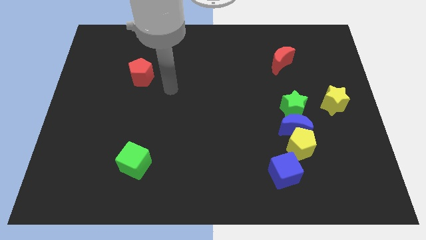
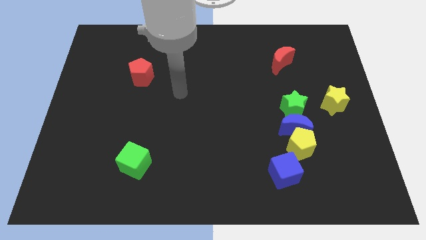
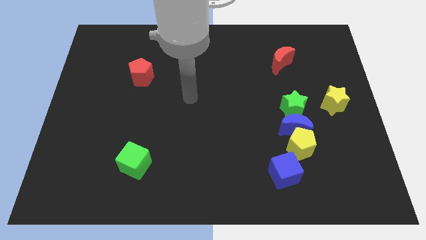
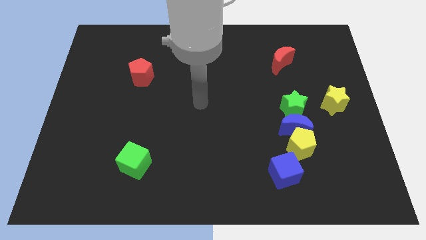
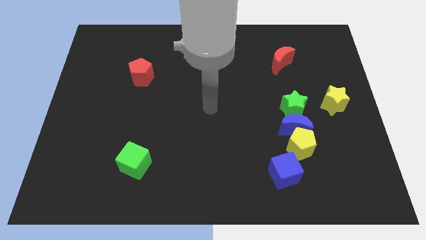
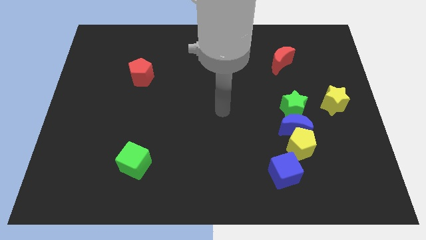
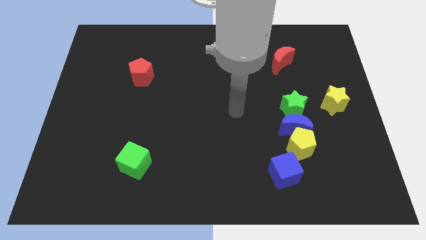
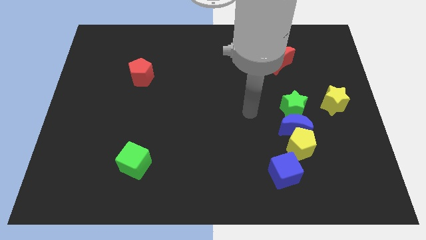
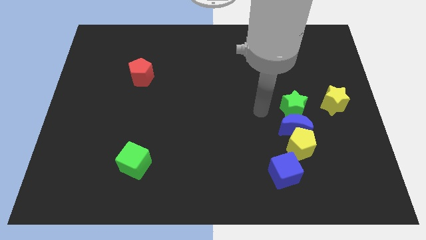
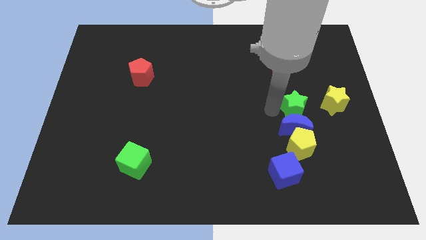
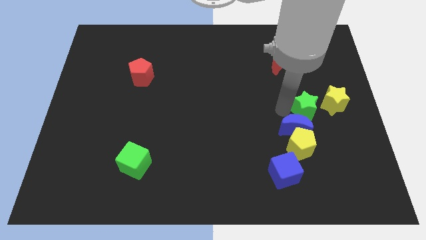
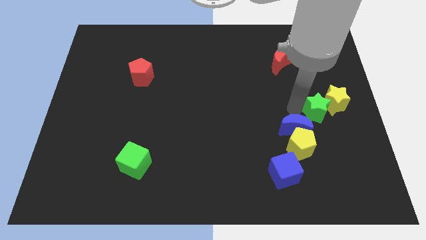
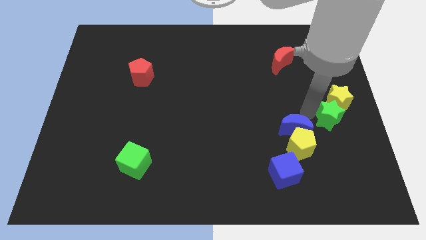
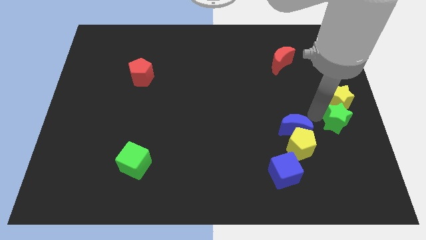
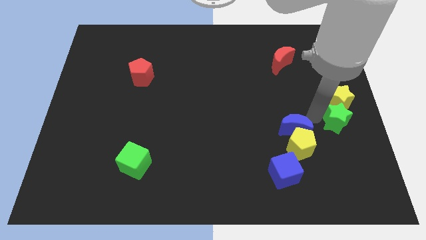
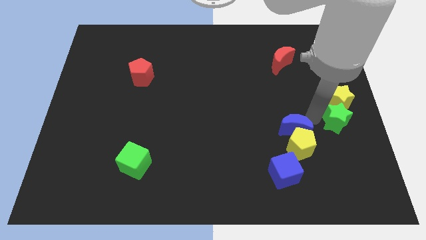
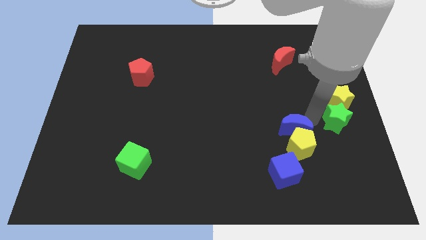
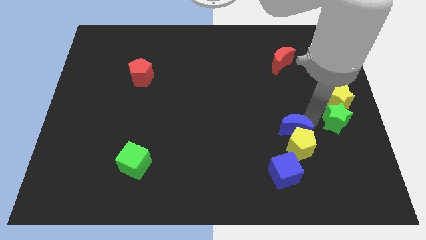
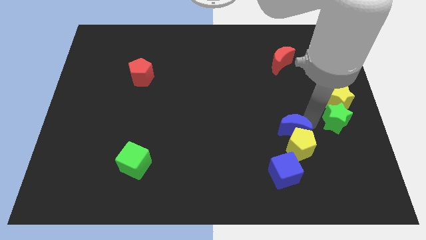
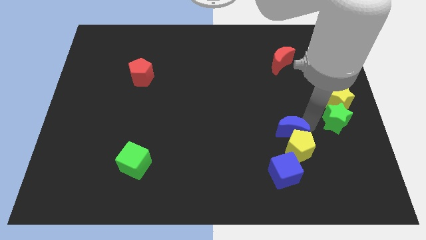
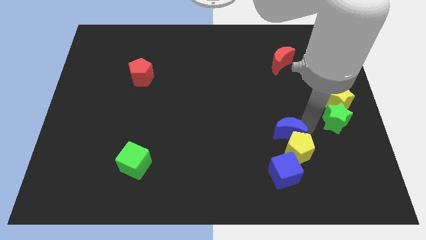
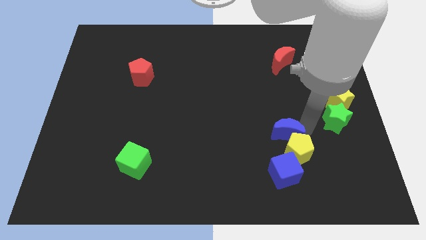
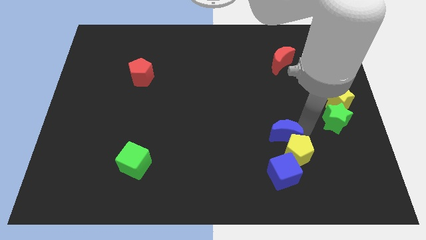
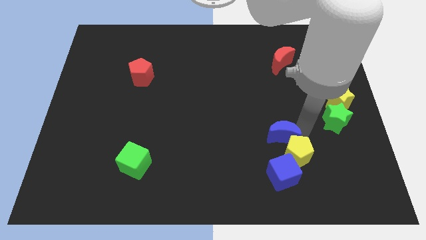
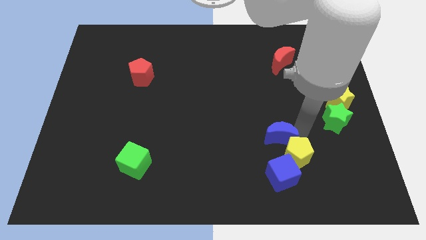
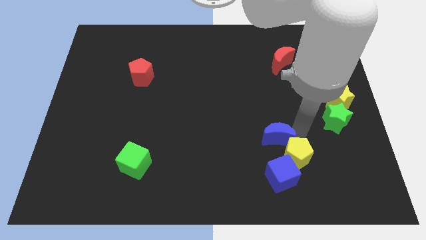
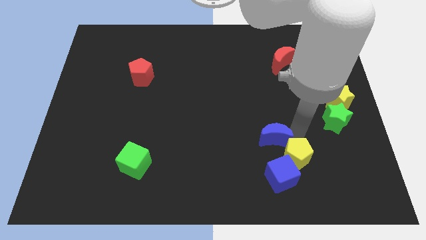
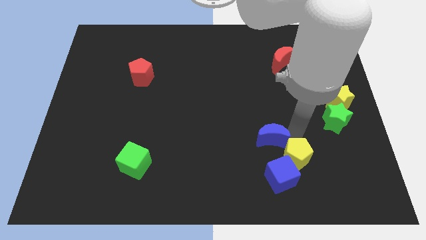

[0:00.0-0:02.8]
move the blue moon away from the yellow pentagon and green star

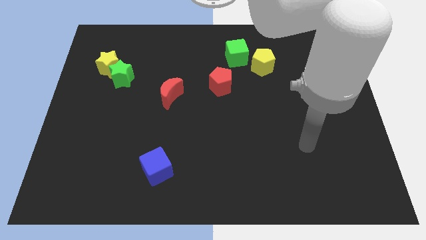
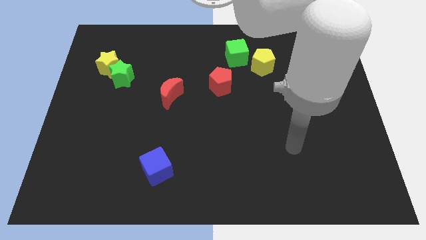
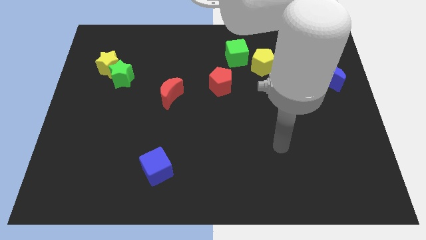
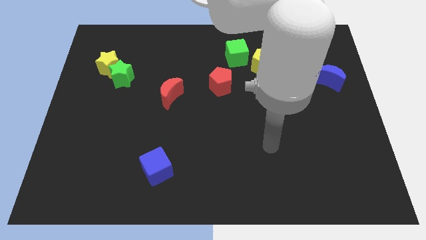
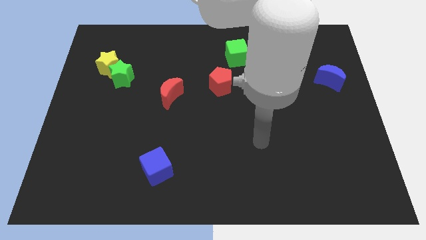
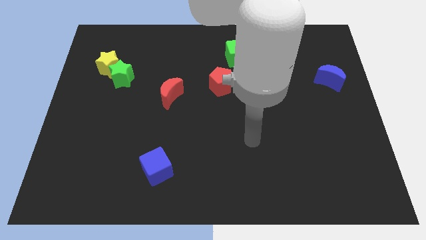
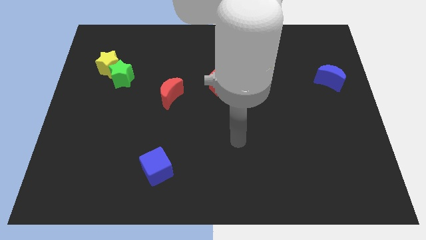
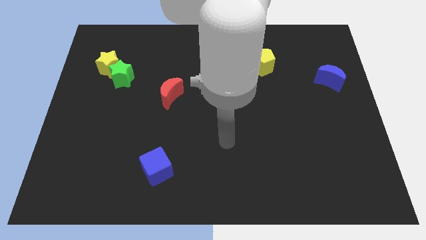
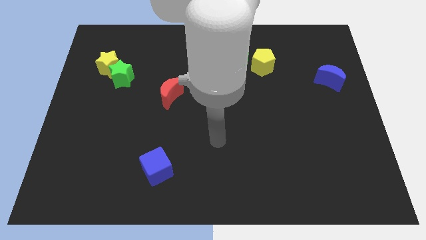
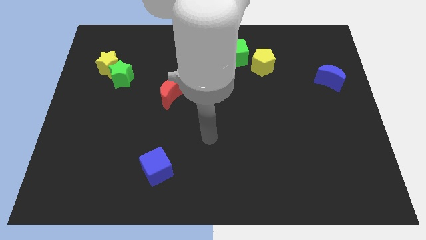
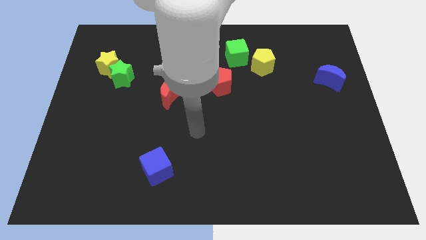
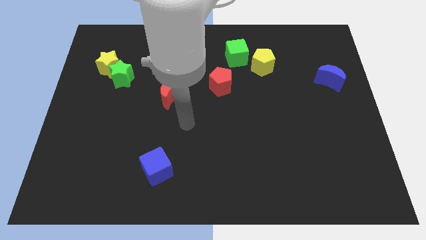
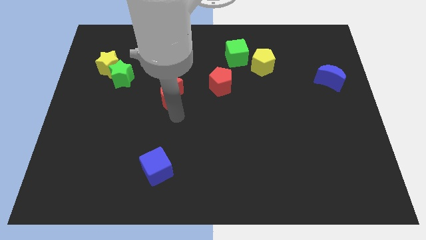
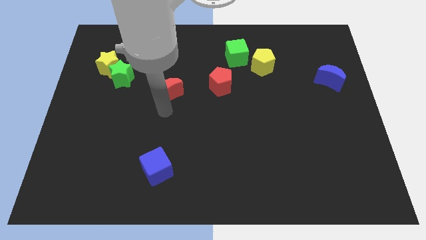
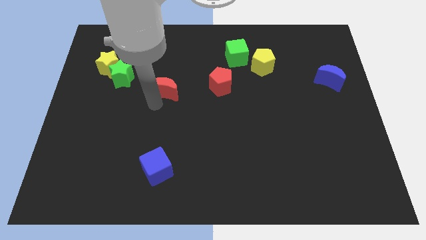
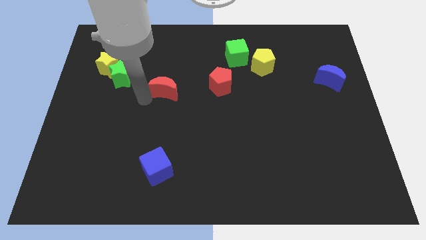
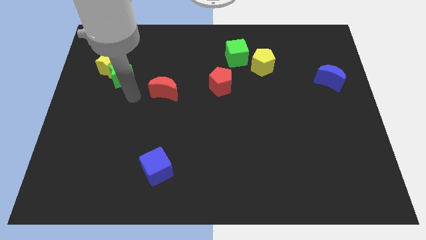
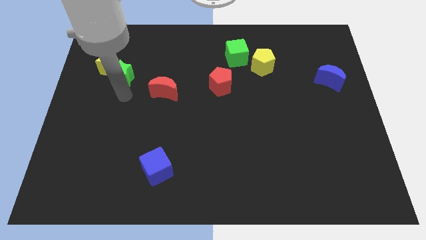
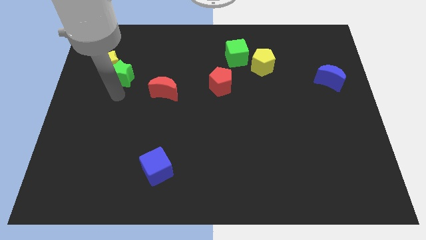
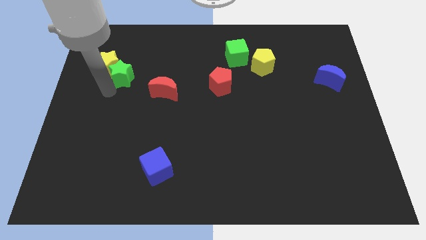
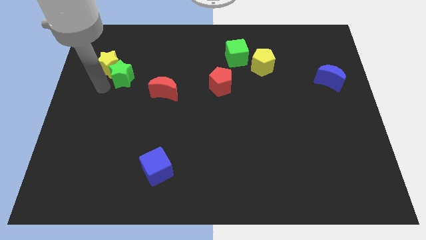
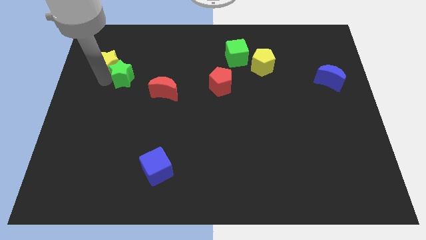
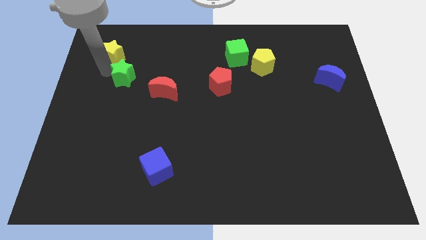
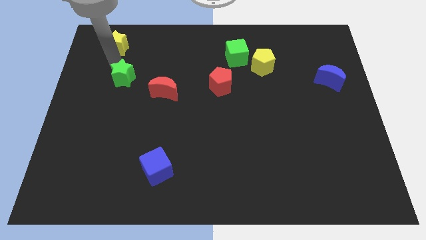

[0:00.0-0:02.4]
move the green star away from the yellow star

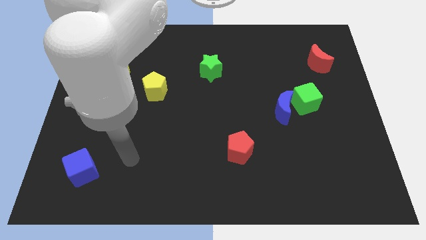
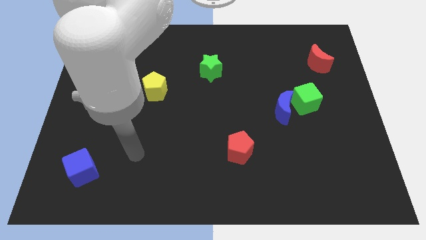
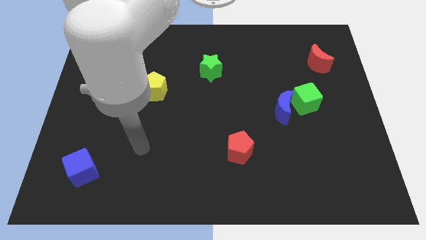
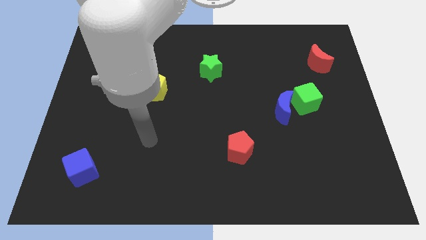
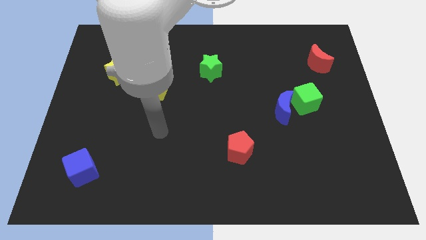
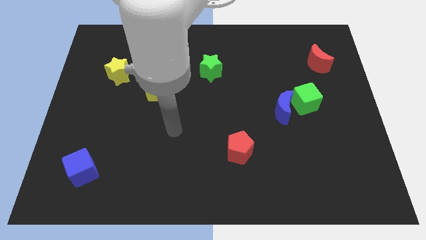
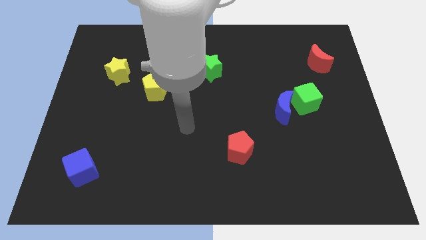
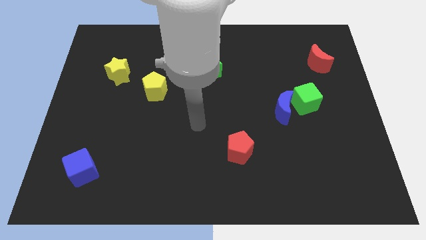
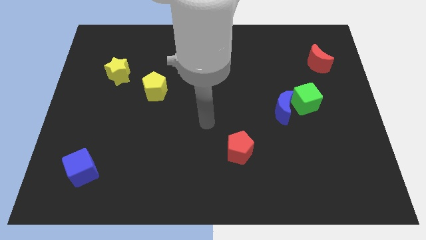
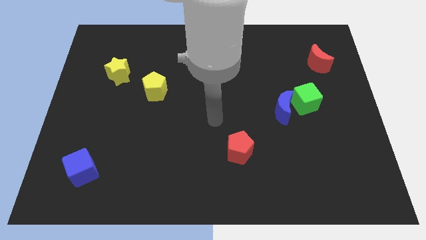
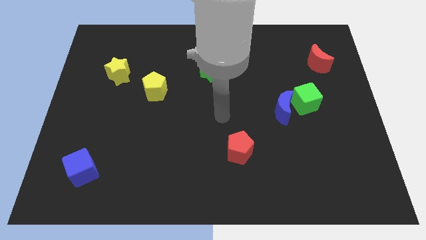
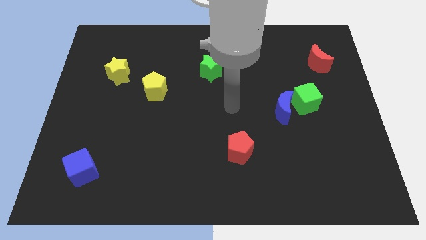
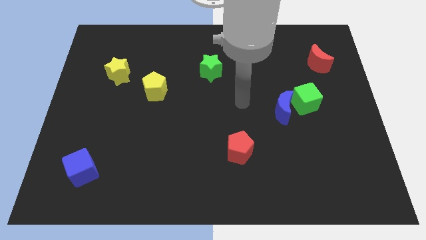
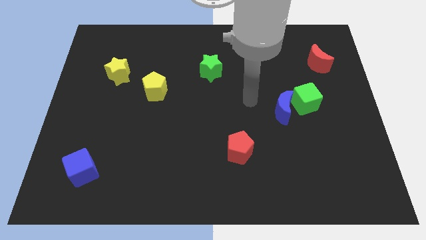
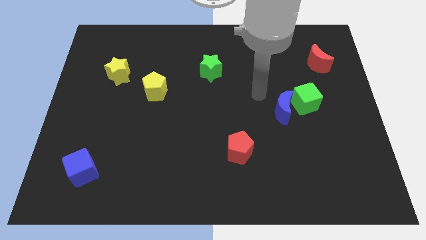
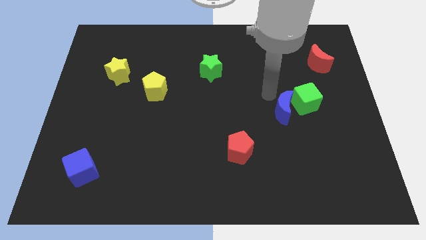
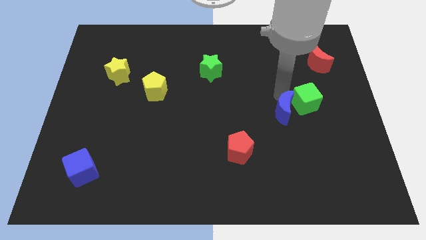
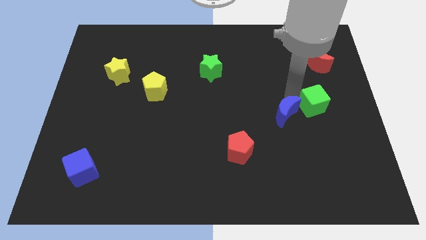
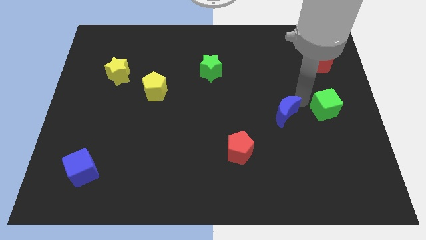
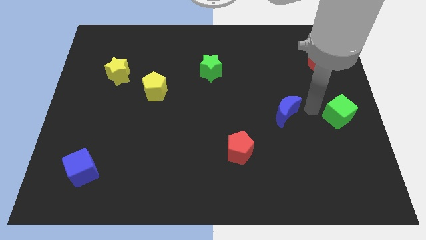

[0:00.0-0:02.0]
move the blue moon away from the green cube

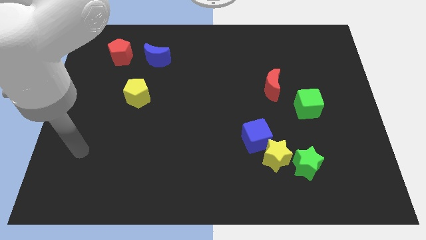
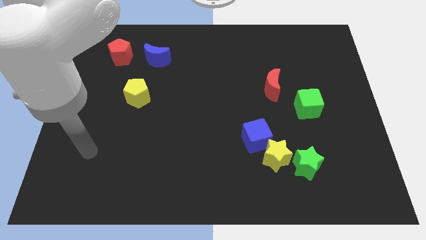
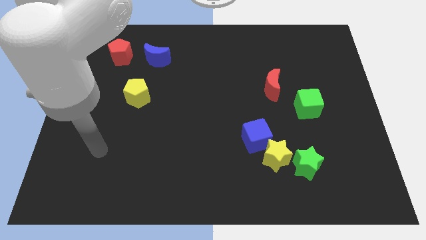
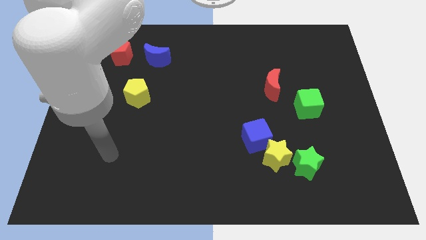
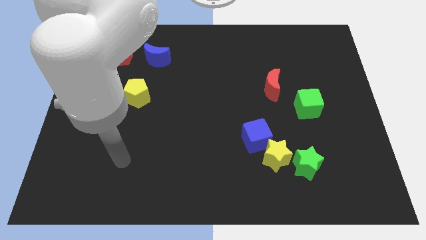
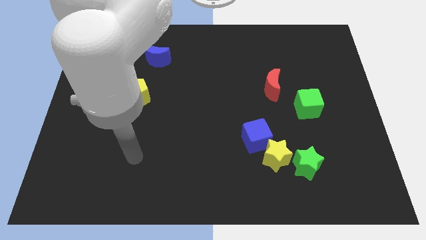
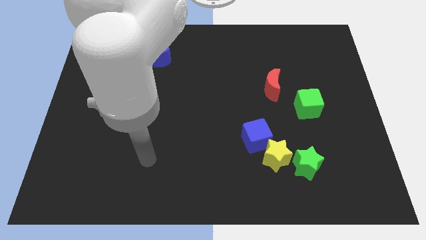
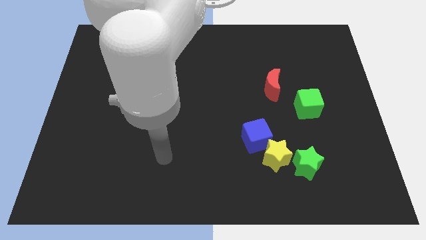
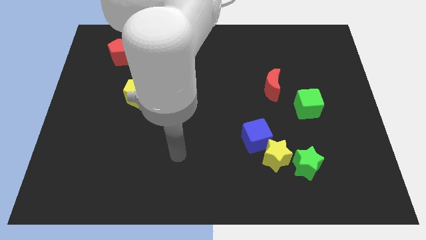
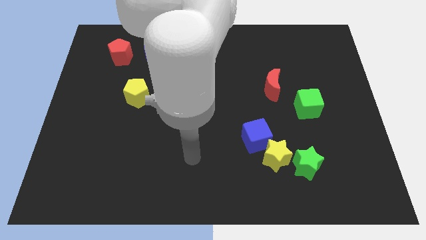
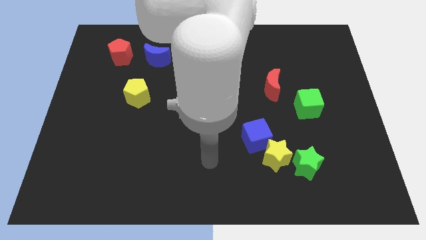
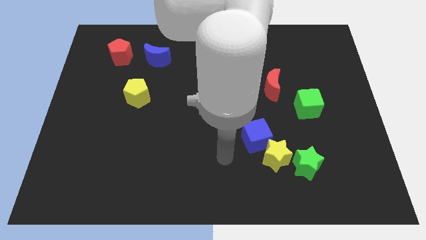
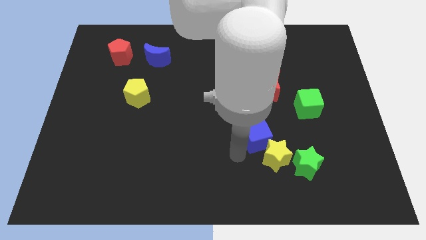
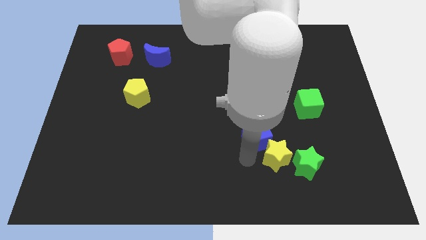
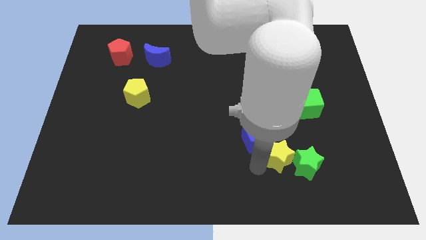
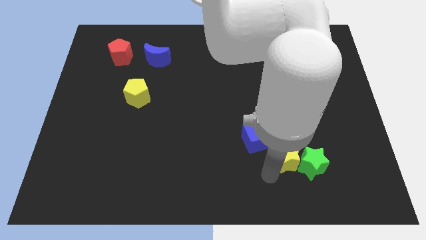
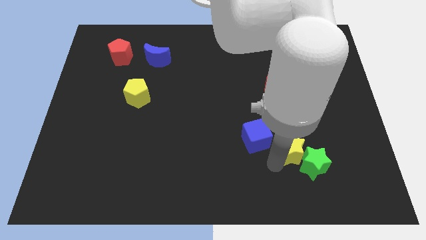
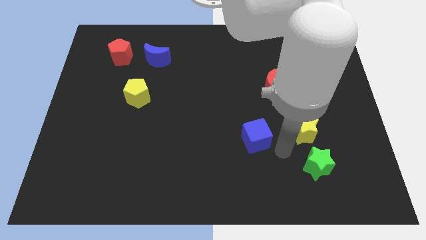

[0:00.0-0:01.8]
move the blue cube away from the yellow star

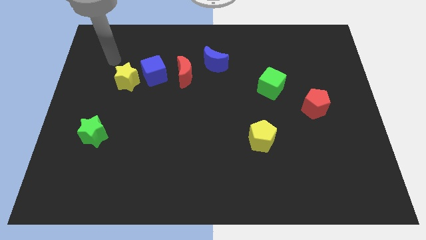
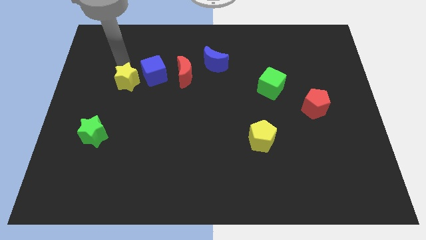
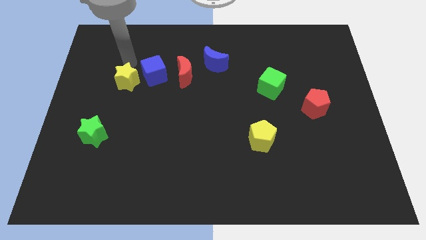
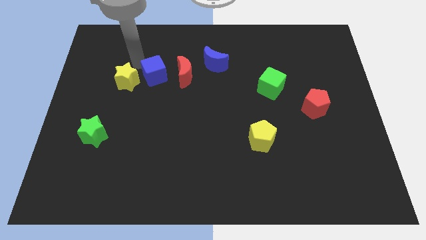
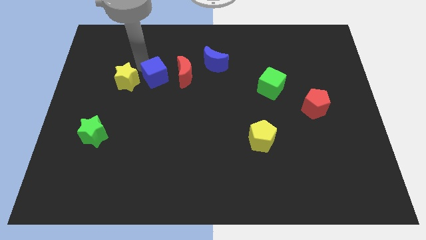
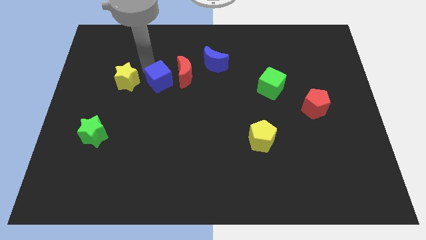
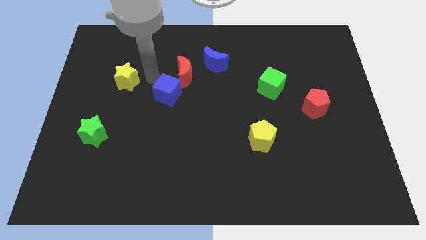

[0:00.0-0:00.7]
pull the yellow star apart from the blue cube
